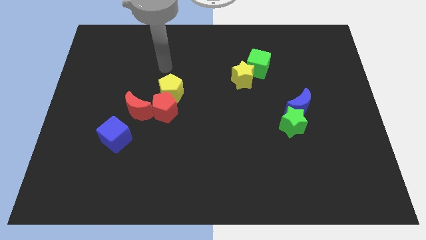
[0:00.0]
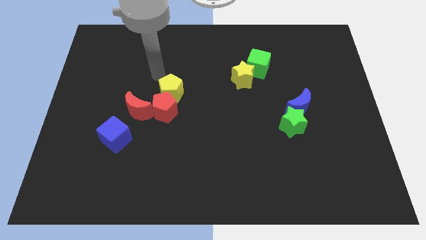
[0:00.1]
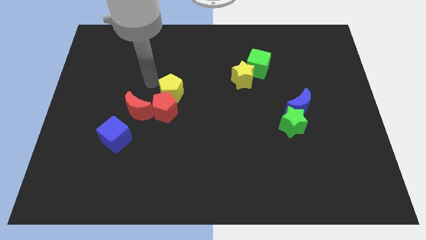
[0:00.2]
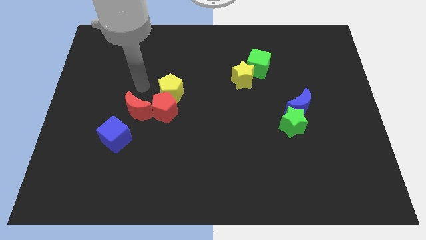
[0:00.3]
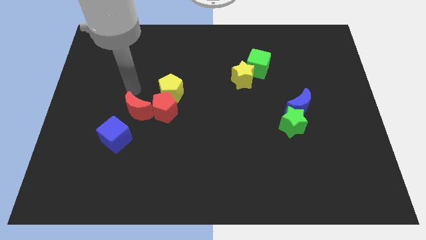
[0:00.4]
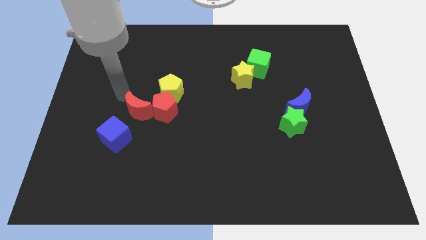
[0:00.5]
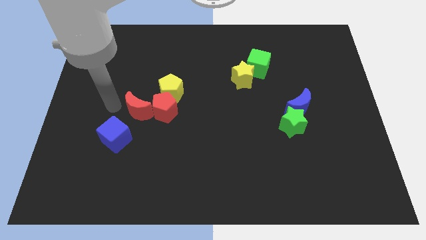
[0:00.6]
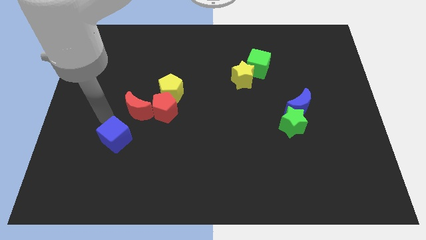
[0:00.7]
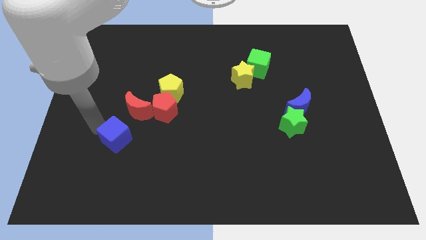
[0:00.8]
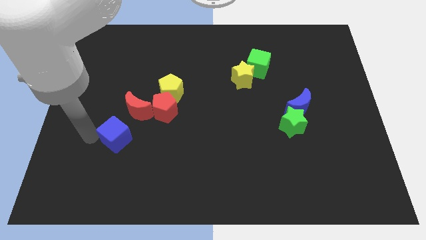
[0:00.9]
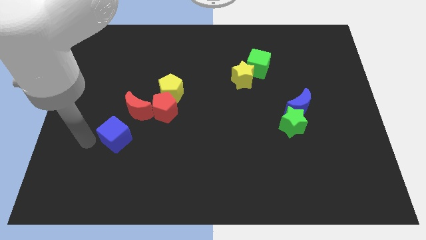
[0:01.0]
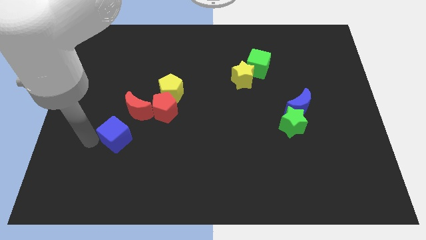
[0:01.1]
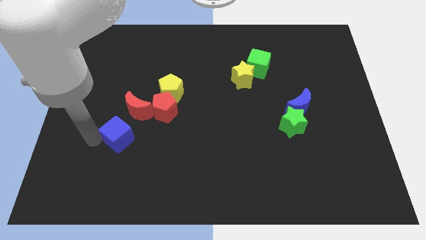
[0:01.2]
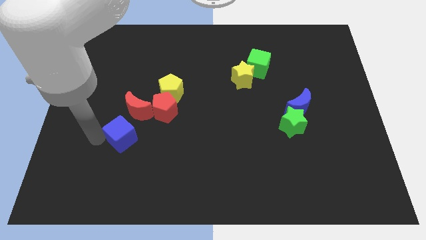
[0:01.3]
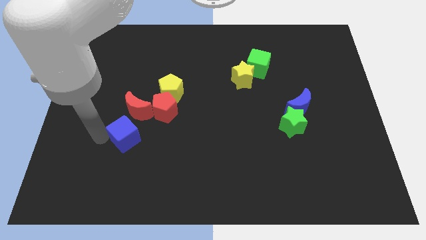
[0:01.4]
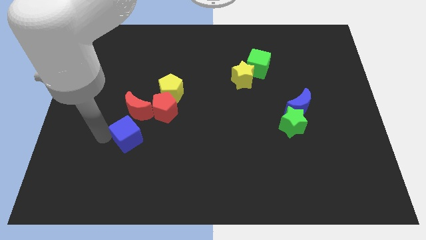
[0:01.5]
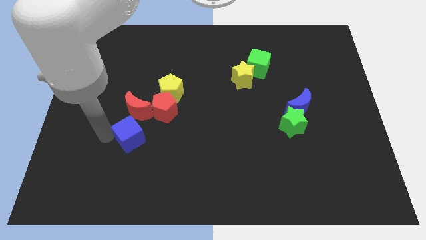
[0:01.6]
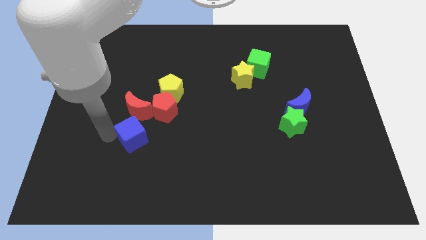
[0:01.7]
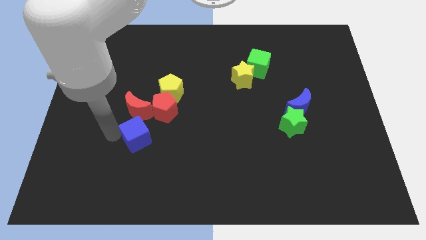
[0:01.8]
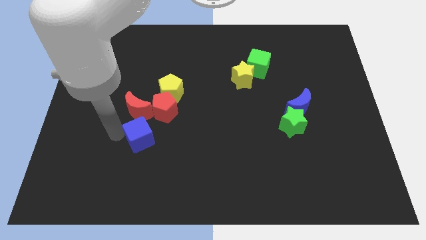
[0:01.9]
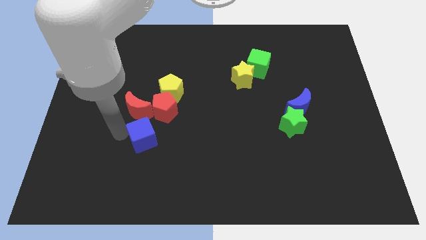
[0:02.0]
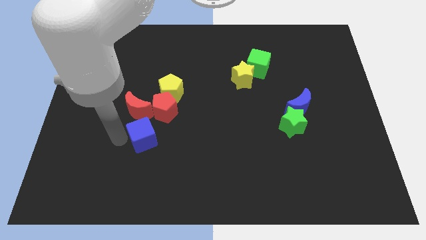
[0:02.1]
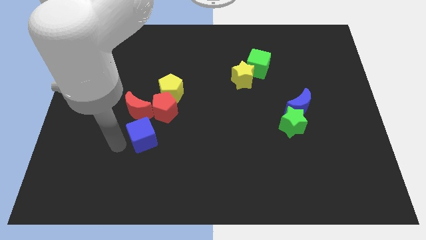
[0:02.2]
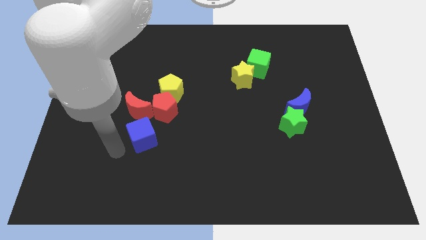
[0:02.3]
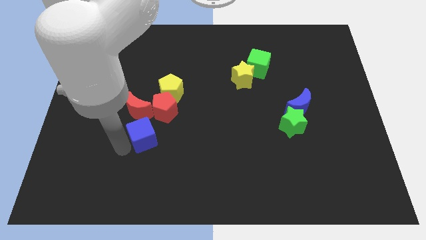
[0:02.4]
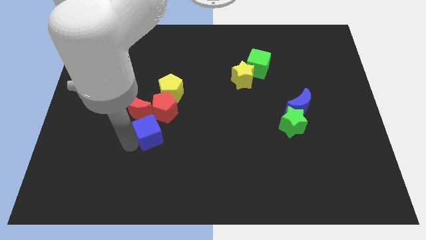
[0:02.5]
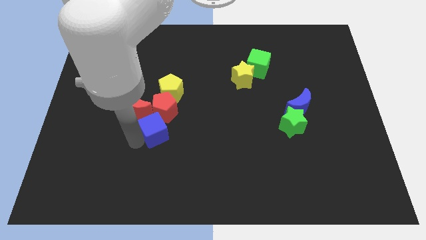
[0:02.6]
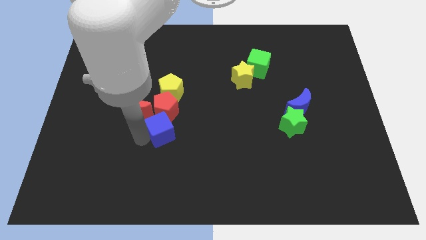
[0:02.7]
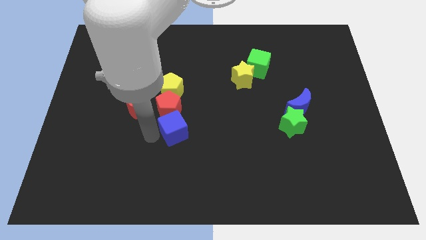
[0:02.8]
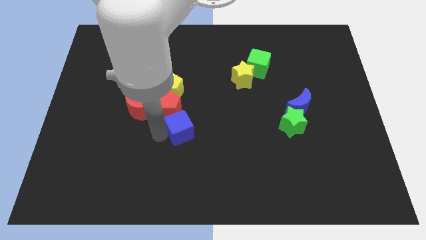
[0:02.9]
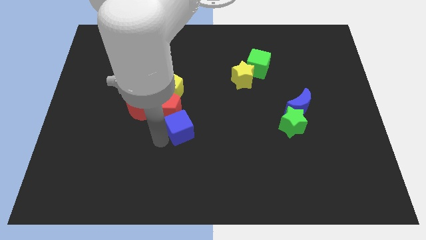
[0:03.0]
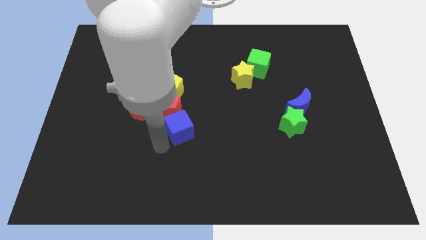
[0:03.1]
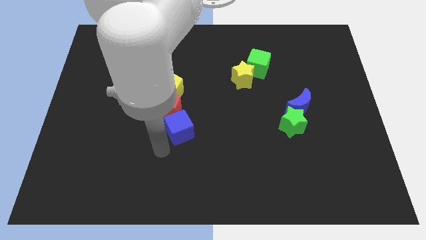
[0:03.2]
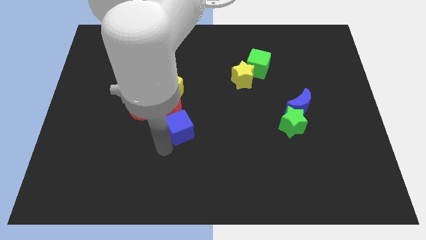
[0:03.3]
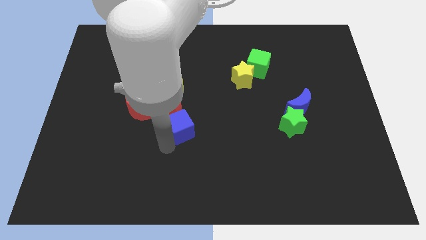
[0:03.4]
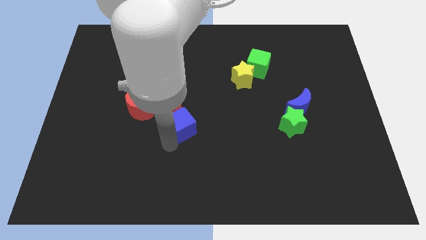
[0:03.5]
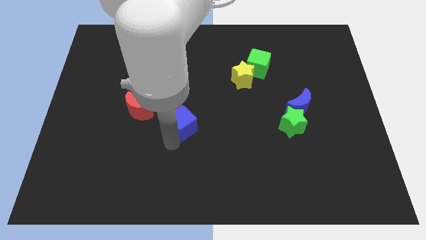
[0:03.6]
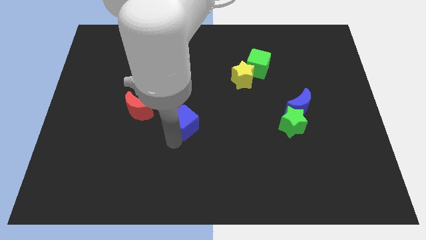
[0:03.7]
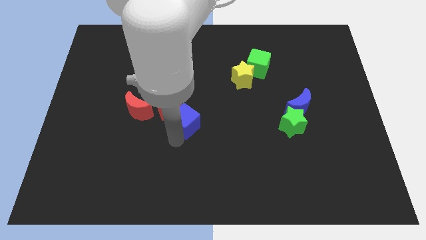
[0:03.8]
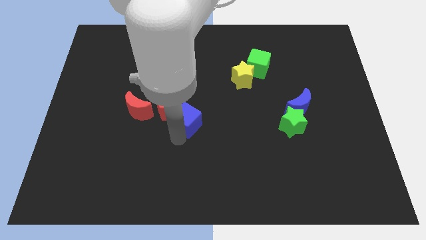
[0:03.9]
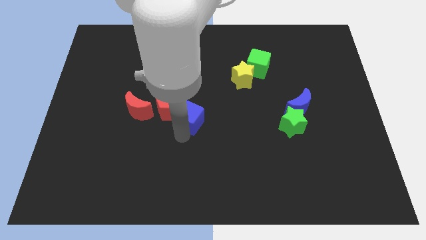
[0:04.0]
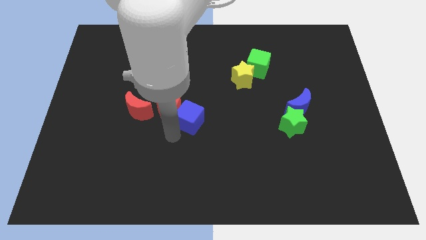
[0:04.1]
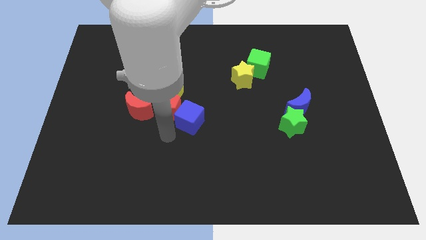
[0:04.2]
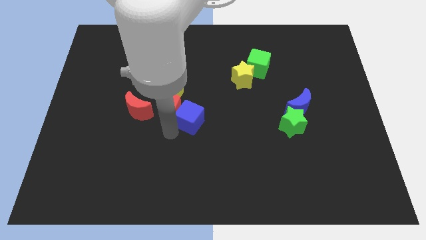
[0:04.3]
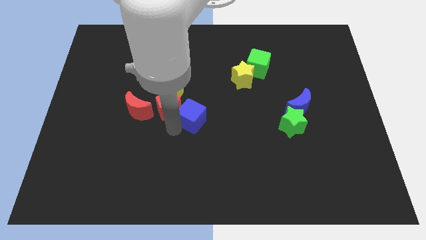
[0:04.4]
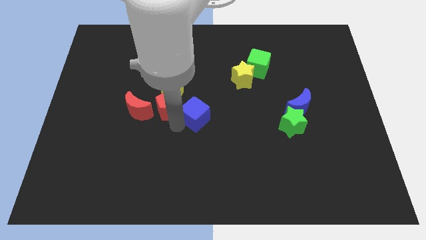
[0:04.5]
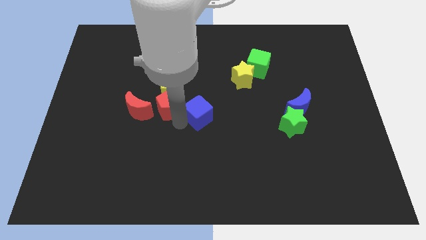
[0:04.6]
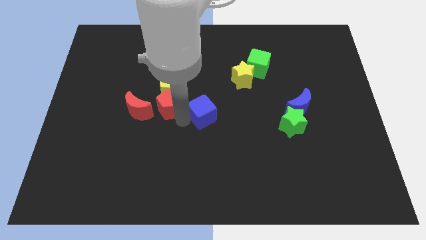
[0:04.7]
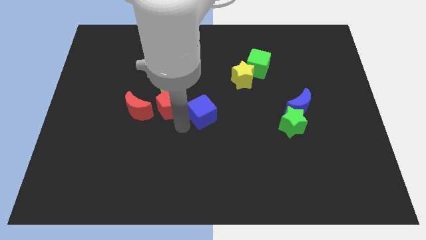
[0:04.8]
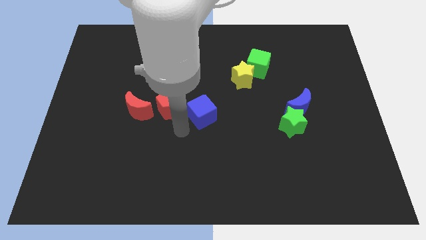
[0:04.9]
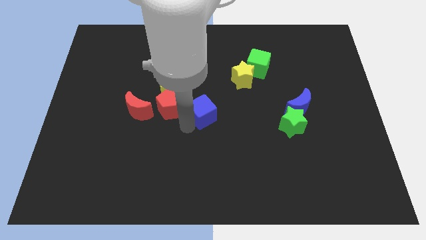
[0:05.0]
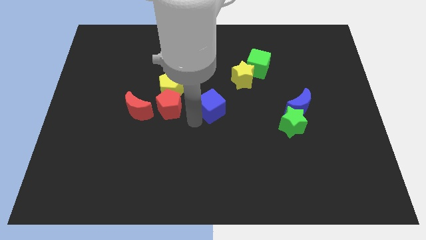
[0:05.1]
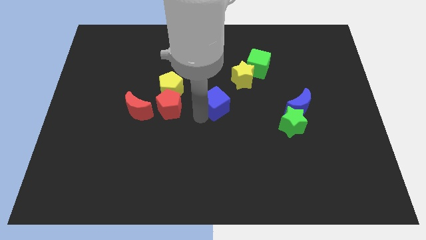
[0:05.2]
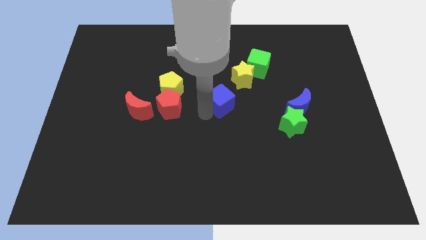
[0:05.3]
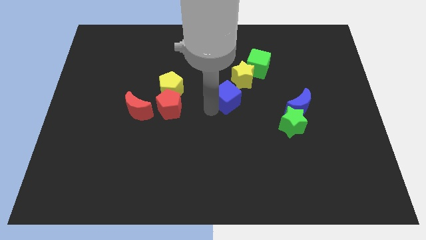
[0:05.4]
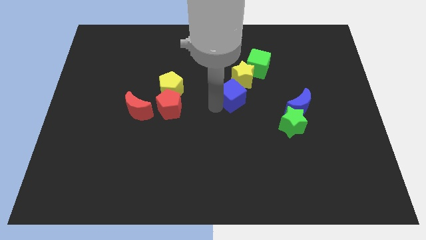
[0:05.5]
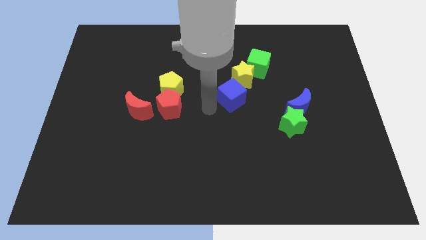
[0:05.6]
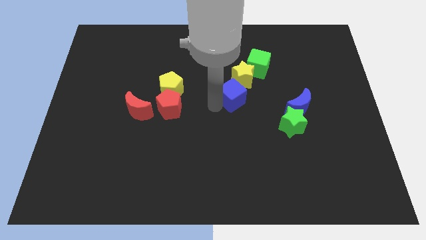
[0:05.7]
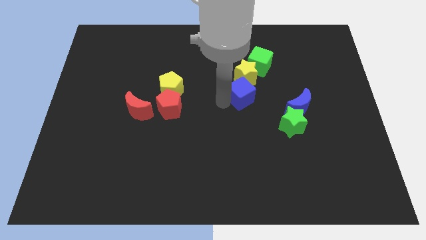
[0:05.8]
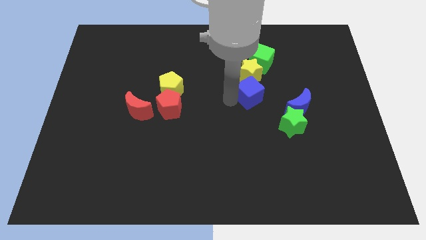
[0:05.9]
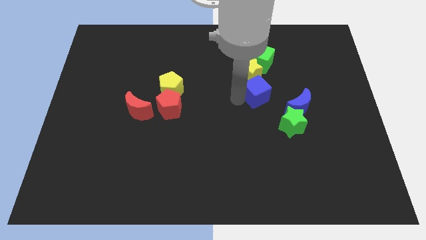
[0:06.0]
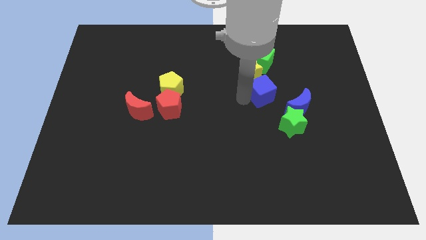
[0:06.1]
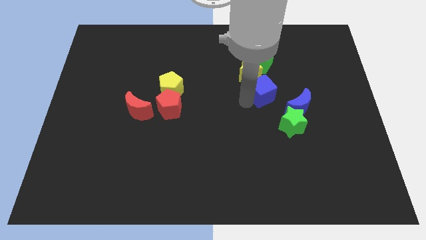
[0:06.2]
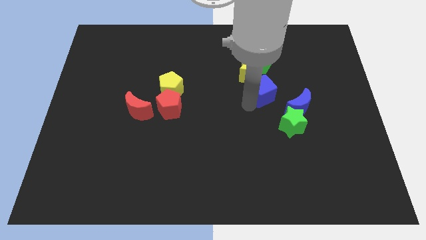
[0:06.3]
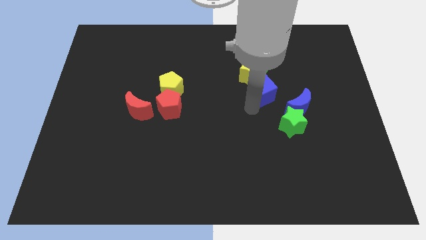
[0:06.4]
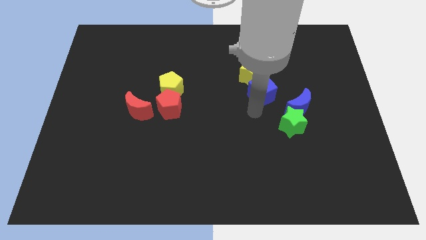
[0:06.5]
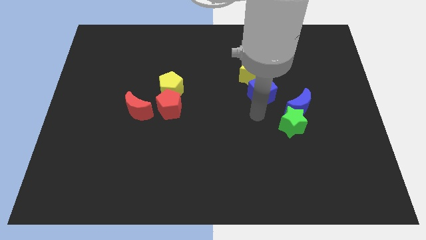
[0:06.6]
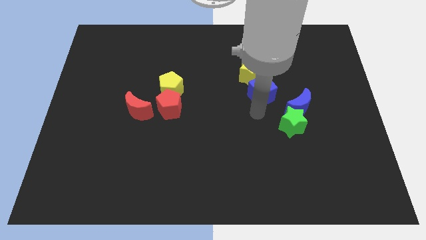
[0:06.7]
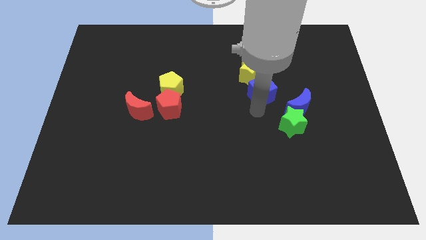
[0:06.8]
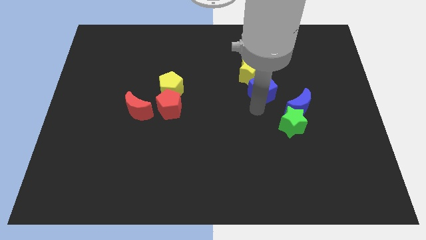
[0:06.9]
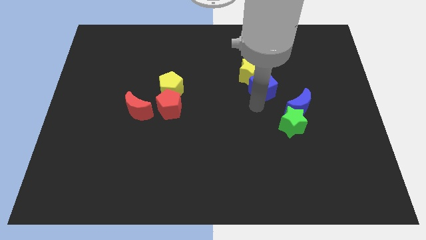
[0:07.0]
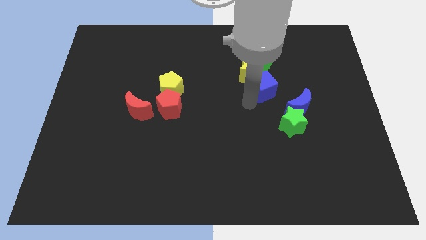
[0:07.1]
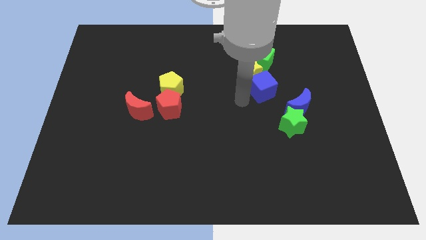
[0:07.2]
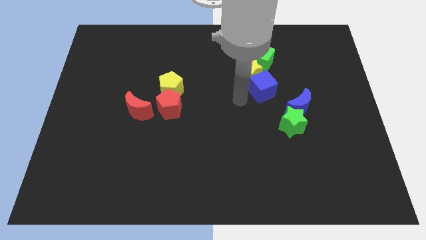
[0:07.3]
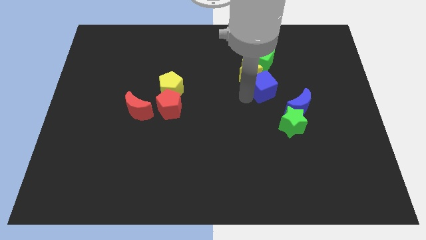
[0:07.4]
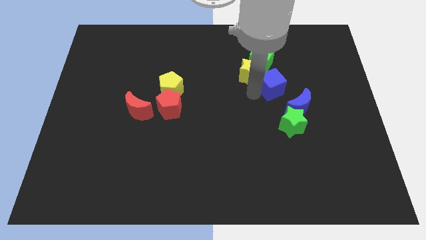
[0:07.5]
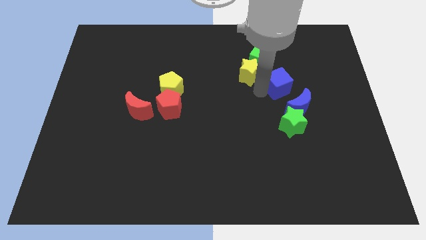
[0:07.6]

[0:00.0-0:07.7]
slide the blue cube to the top of the blue moon
